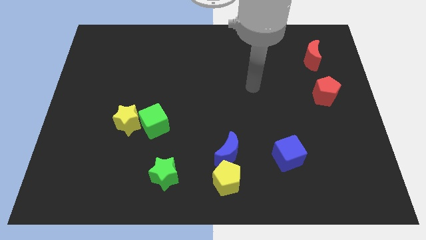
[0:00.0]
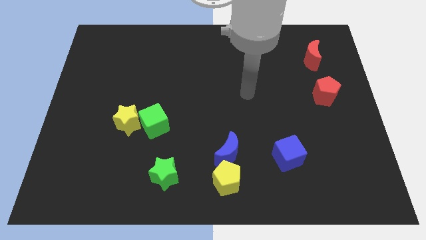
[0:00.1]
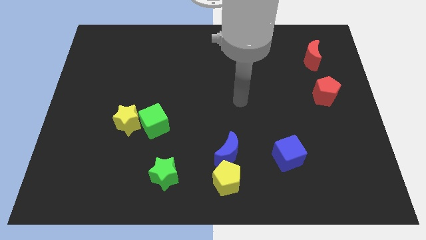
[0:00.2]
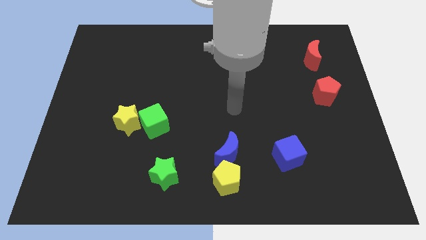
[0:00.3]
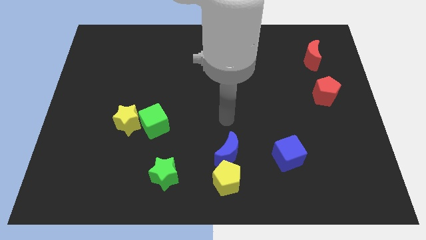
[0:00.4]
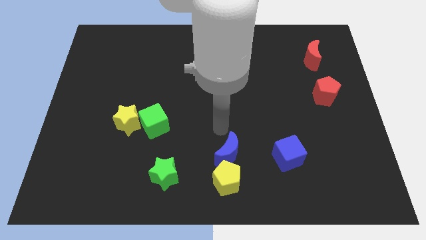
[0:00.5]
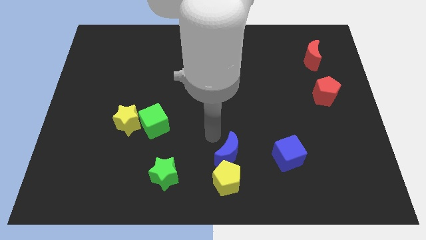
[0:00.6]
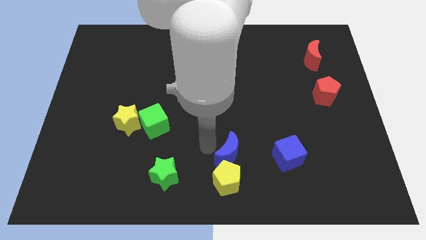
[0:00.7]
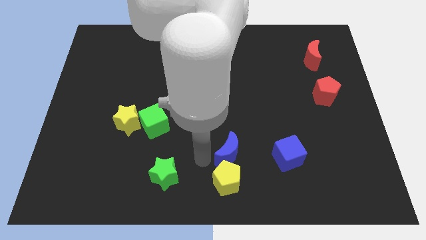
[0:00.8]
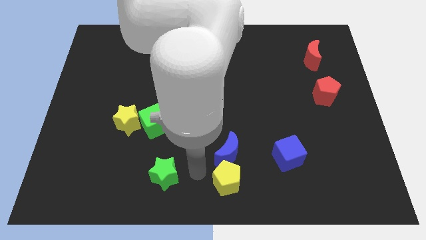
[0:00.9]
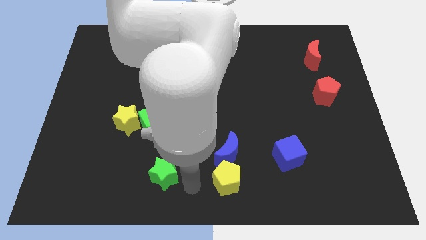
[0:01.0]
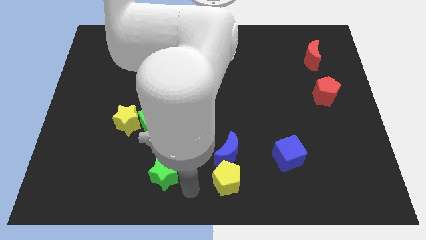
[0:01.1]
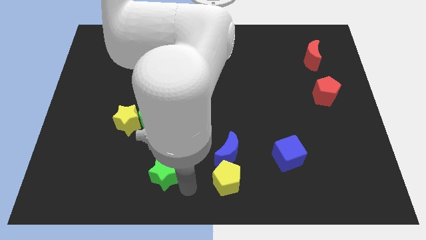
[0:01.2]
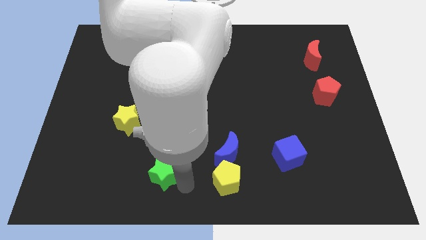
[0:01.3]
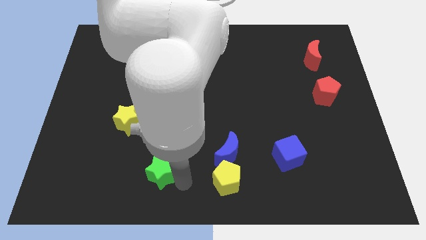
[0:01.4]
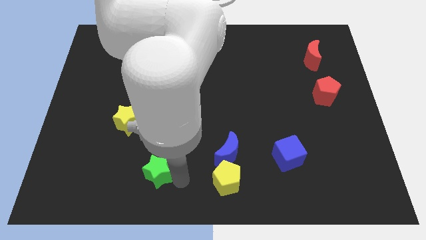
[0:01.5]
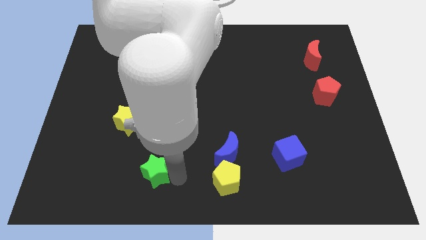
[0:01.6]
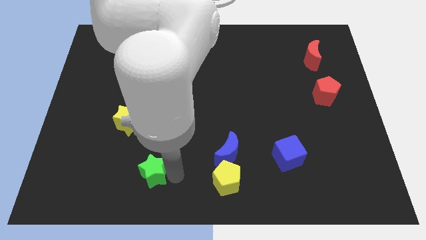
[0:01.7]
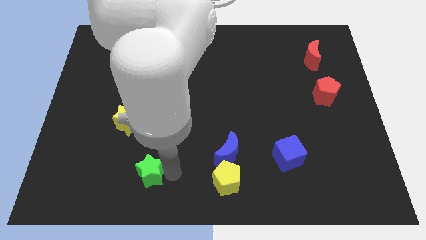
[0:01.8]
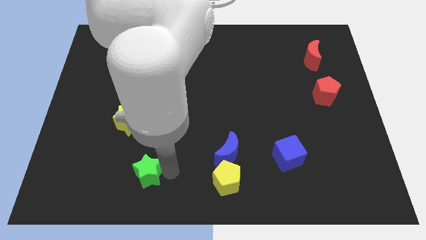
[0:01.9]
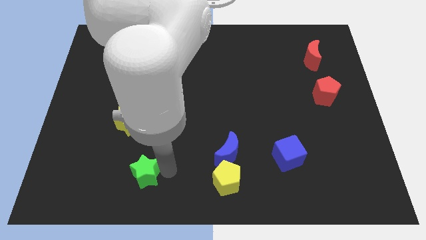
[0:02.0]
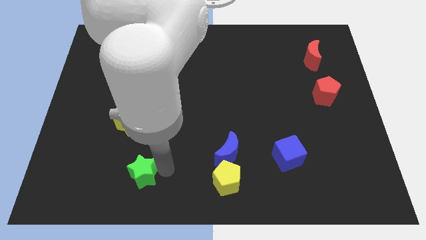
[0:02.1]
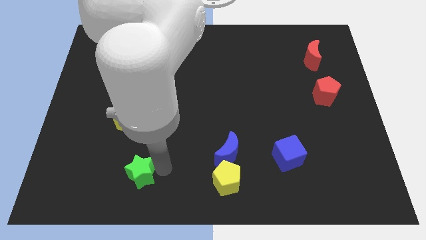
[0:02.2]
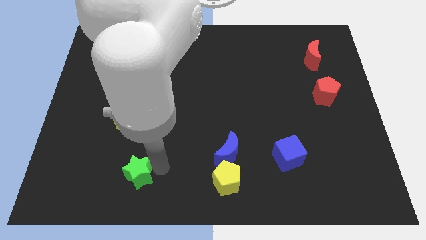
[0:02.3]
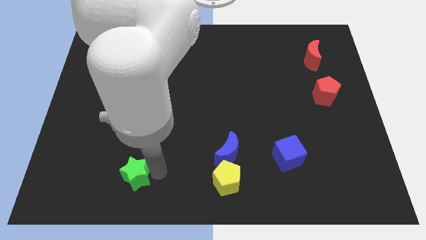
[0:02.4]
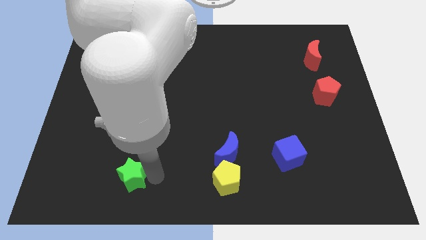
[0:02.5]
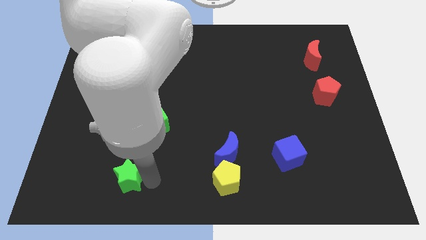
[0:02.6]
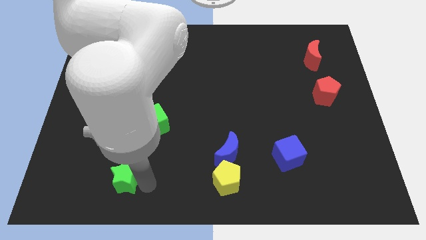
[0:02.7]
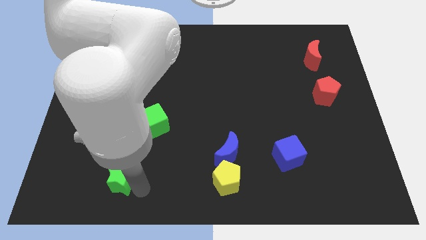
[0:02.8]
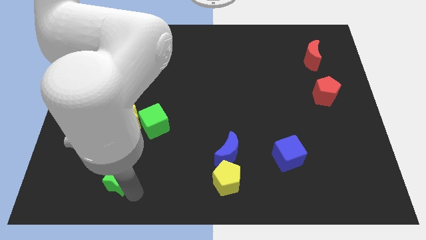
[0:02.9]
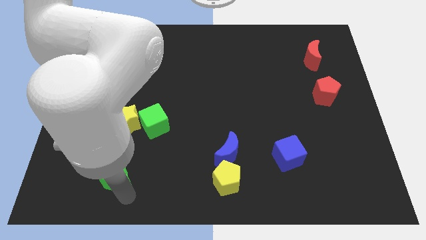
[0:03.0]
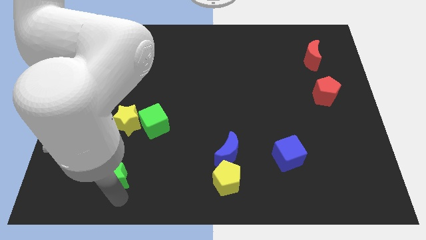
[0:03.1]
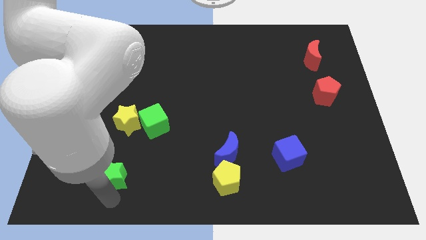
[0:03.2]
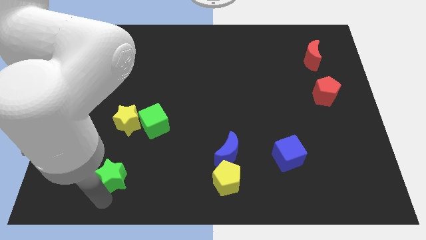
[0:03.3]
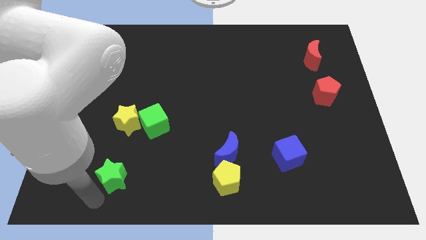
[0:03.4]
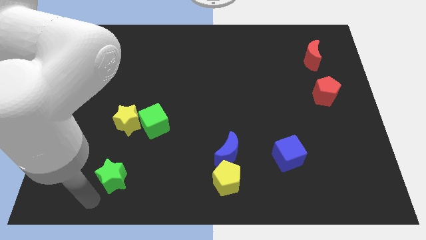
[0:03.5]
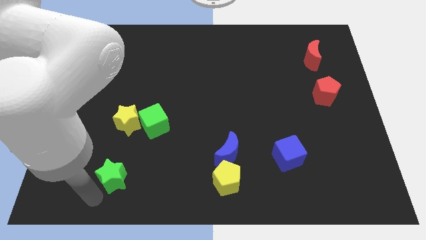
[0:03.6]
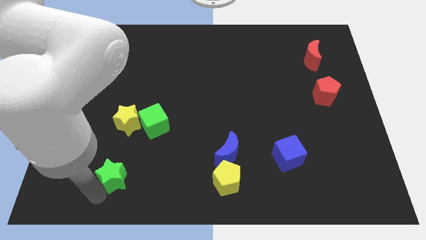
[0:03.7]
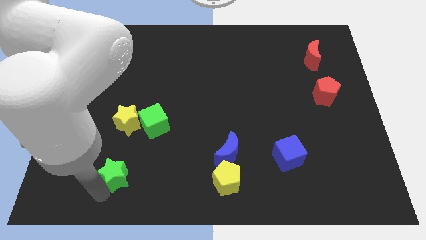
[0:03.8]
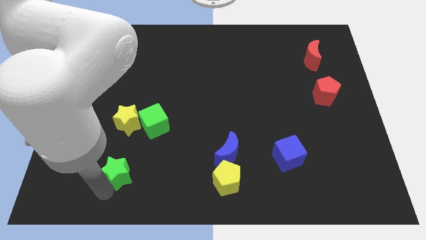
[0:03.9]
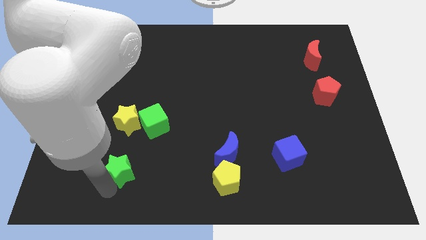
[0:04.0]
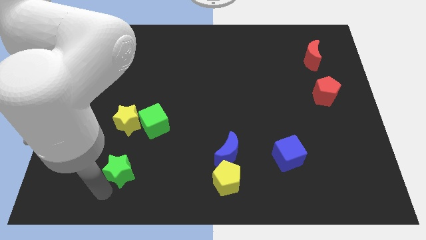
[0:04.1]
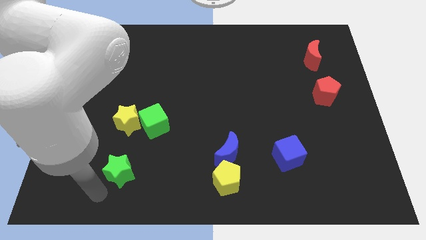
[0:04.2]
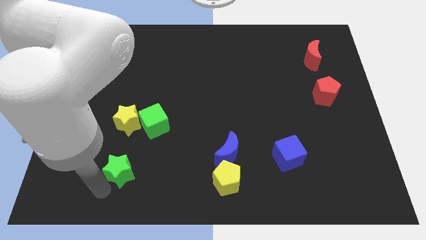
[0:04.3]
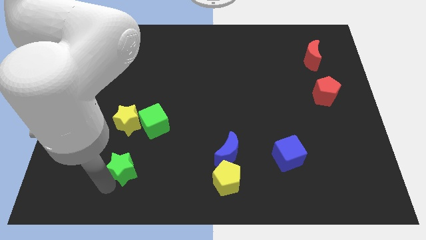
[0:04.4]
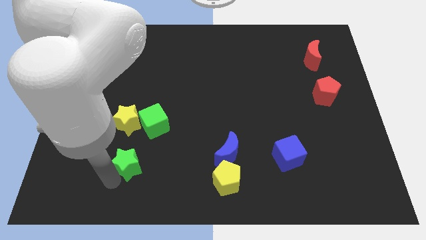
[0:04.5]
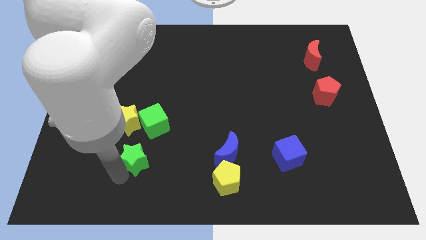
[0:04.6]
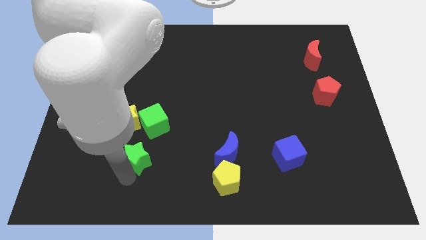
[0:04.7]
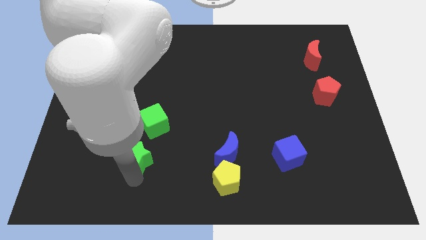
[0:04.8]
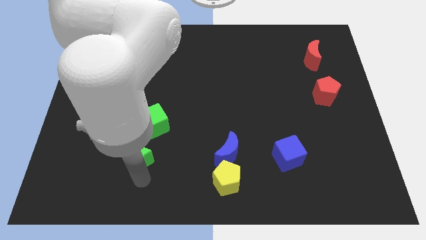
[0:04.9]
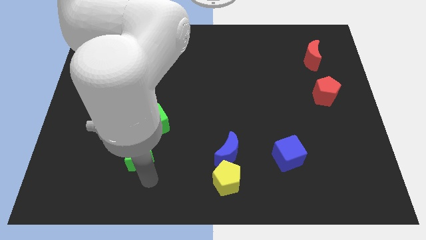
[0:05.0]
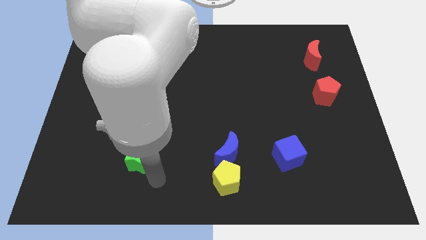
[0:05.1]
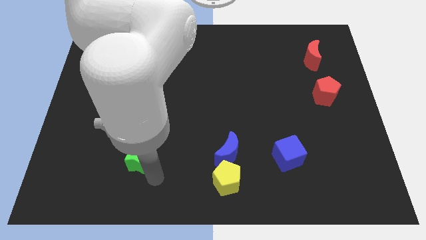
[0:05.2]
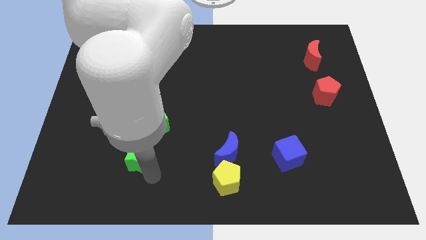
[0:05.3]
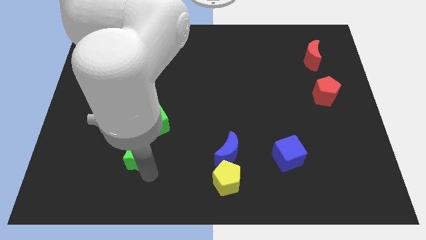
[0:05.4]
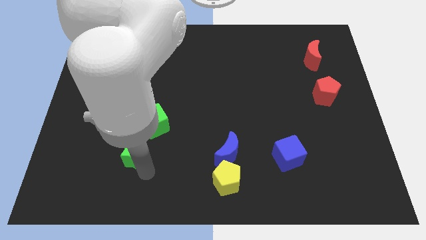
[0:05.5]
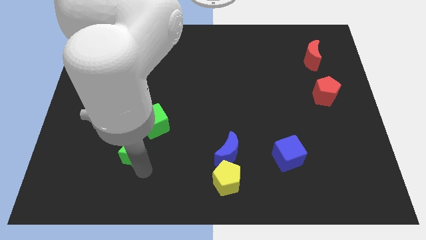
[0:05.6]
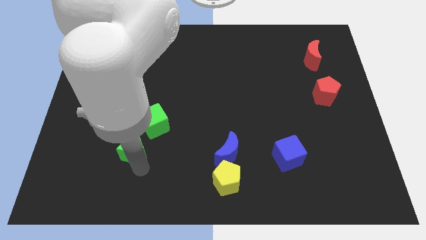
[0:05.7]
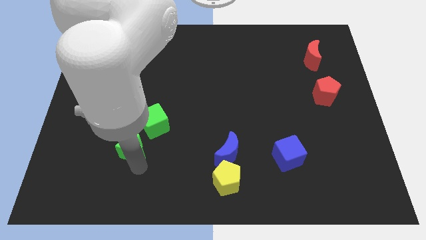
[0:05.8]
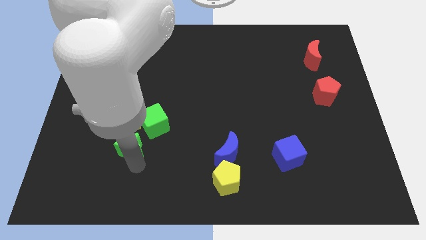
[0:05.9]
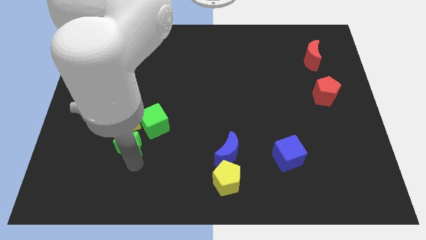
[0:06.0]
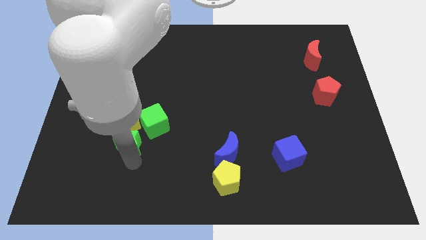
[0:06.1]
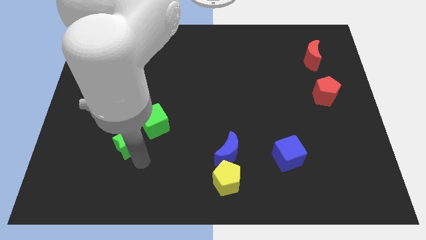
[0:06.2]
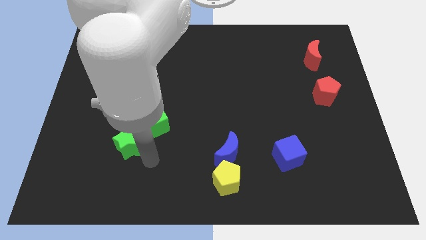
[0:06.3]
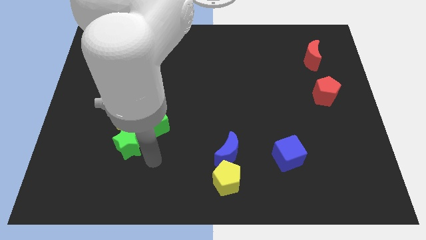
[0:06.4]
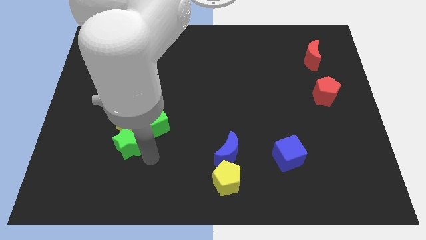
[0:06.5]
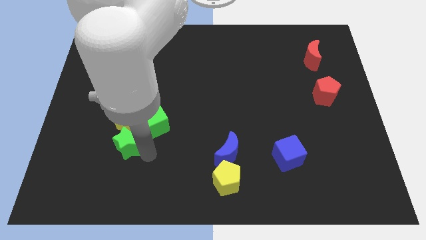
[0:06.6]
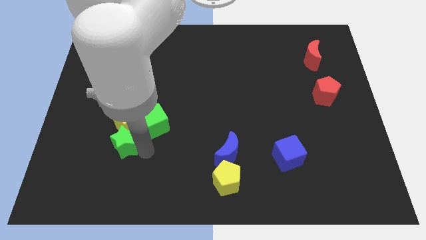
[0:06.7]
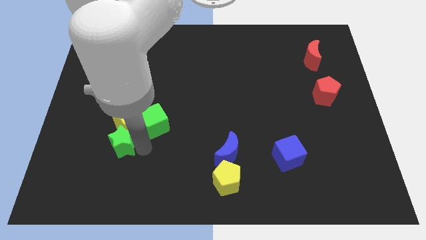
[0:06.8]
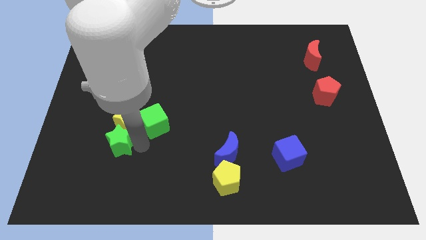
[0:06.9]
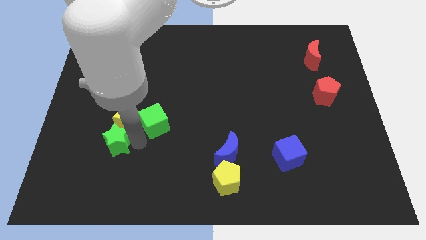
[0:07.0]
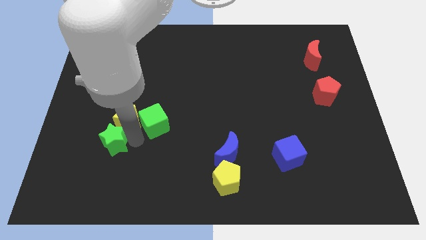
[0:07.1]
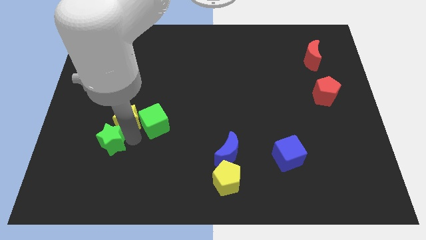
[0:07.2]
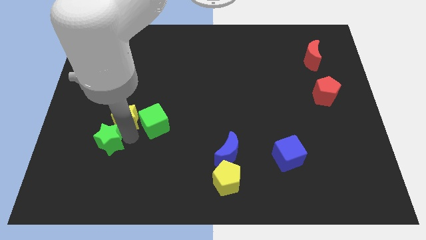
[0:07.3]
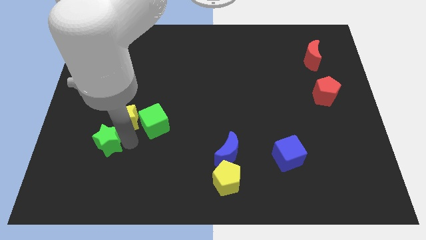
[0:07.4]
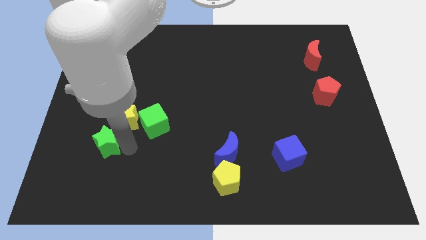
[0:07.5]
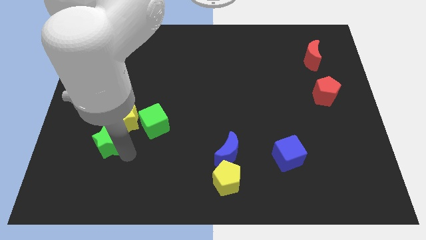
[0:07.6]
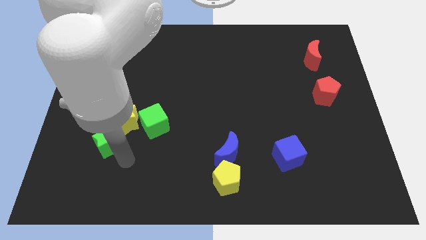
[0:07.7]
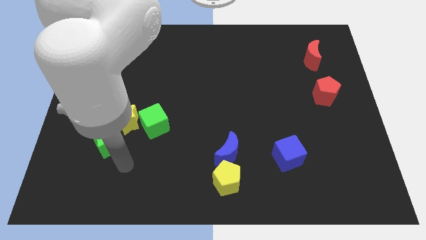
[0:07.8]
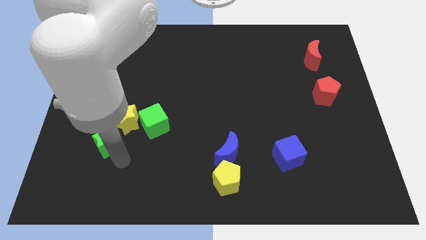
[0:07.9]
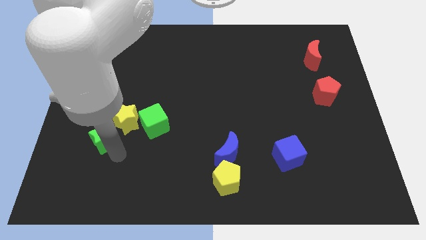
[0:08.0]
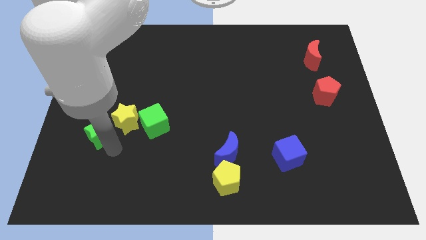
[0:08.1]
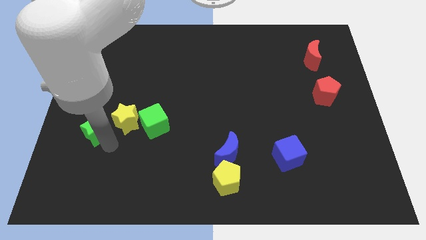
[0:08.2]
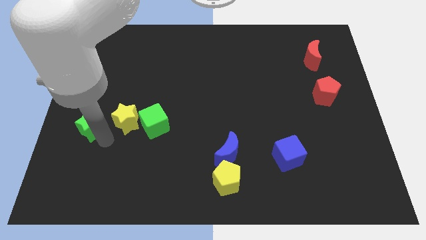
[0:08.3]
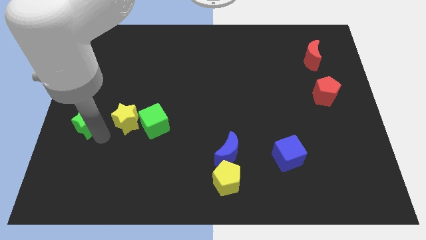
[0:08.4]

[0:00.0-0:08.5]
slide the green star to the left side
